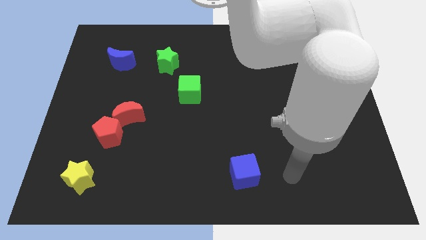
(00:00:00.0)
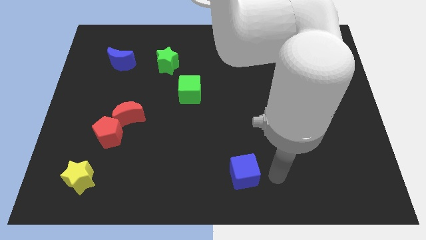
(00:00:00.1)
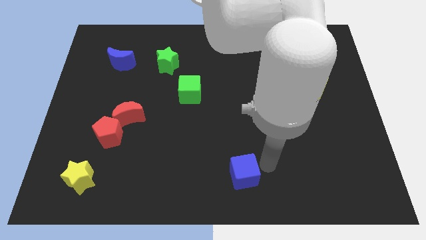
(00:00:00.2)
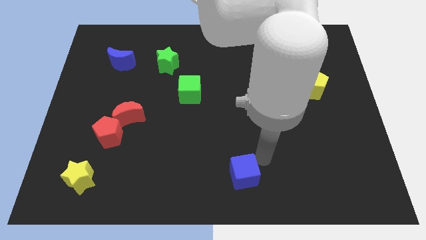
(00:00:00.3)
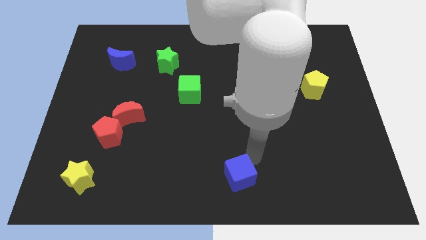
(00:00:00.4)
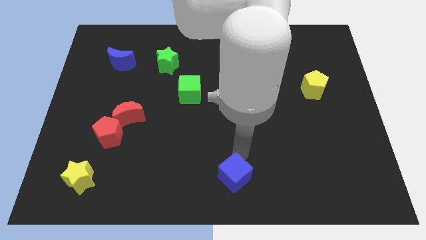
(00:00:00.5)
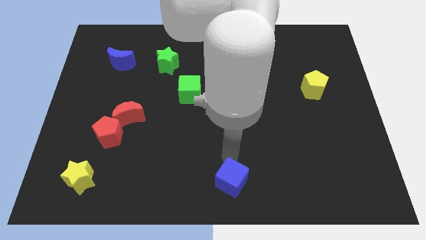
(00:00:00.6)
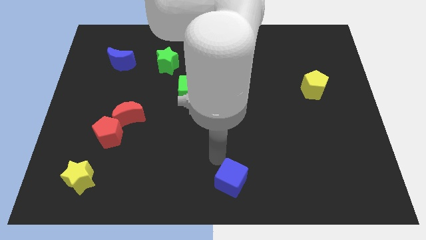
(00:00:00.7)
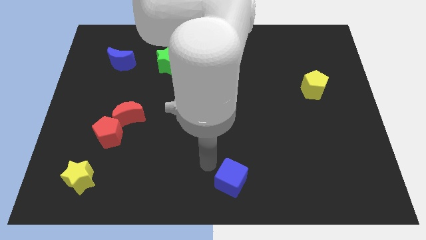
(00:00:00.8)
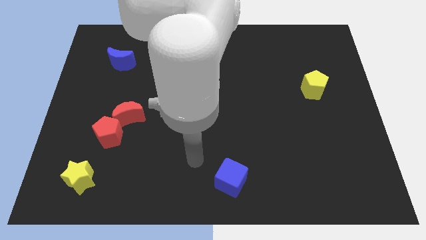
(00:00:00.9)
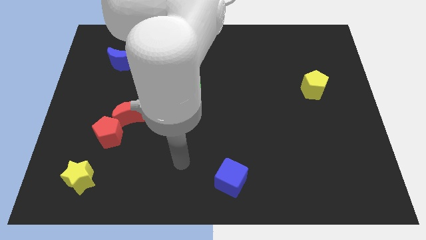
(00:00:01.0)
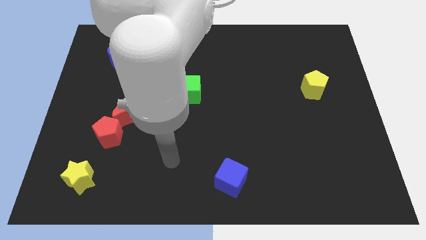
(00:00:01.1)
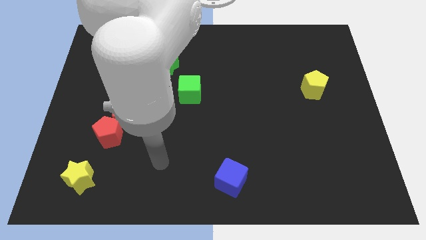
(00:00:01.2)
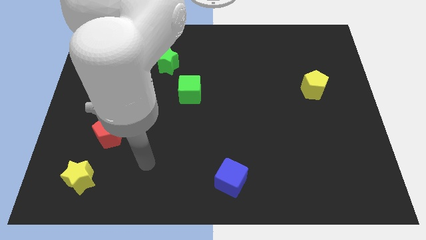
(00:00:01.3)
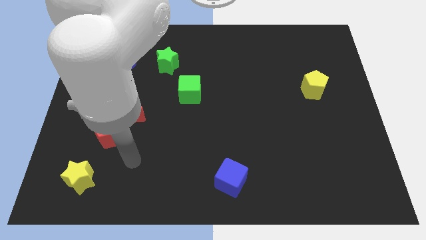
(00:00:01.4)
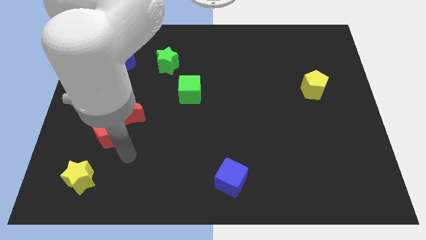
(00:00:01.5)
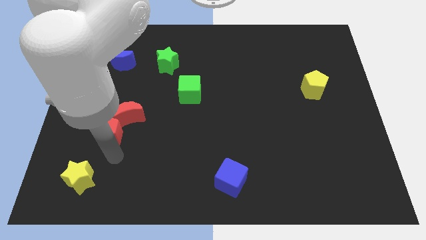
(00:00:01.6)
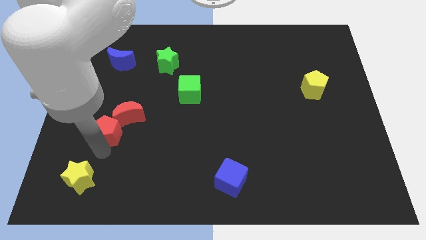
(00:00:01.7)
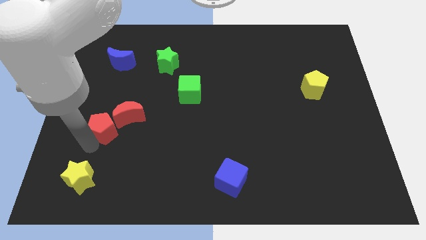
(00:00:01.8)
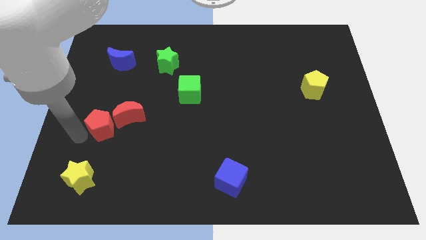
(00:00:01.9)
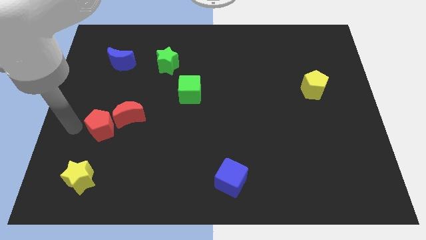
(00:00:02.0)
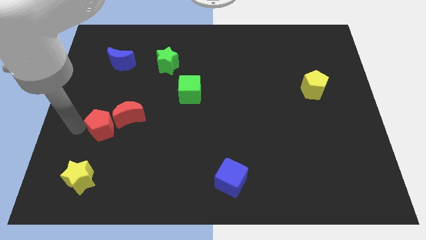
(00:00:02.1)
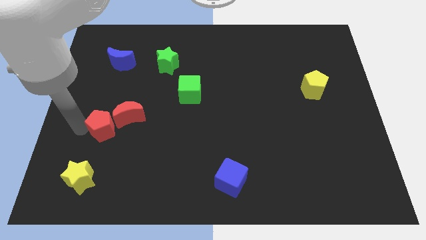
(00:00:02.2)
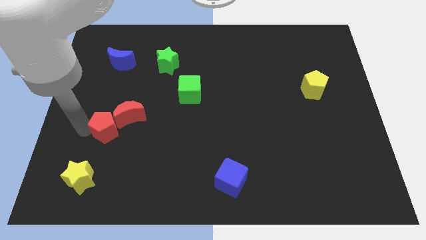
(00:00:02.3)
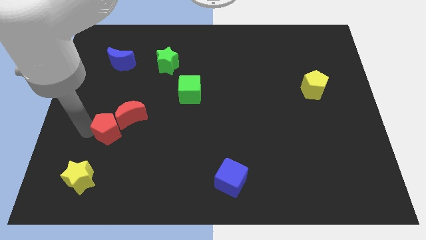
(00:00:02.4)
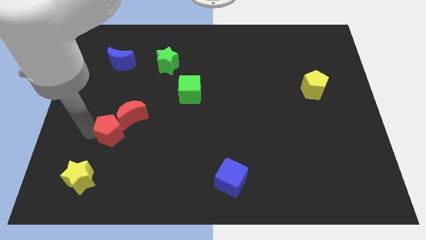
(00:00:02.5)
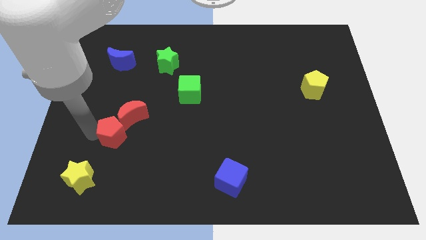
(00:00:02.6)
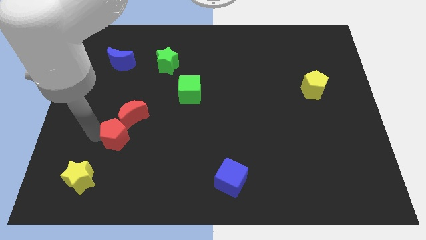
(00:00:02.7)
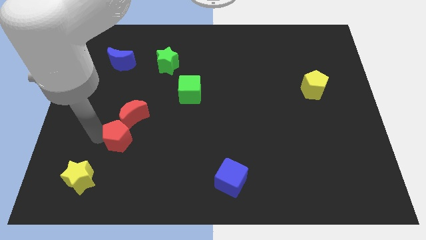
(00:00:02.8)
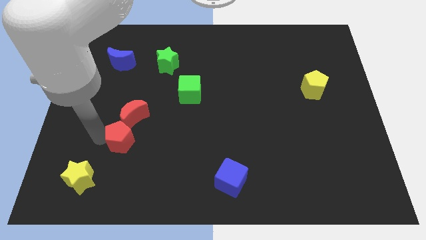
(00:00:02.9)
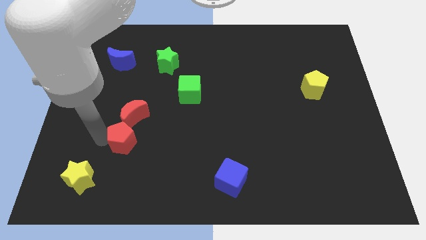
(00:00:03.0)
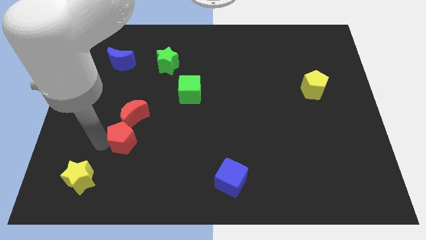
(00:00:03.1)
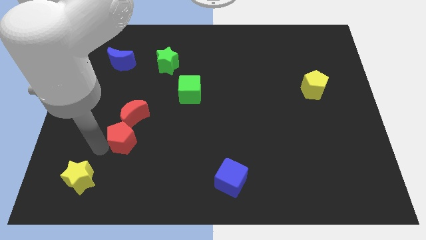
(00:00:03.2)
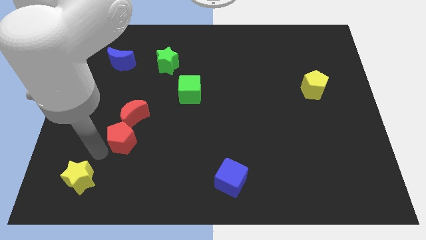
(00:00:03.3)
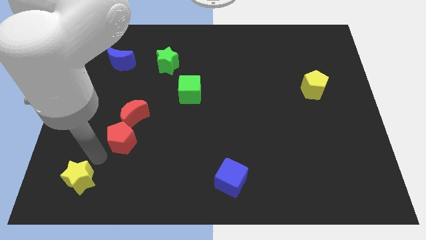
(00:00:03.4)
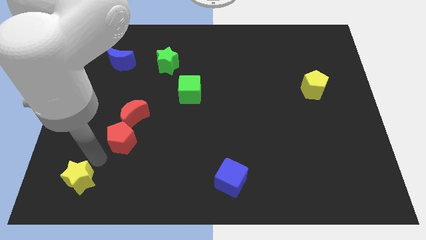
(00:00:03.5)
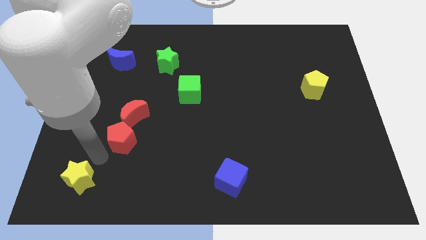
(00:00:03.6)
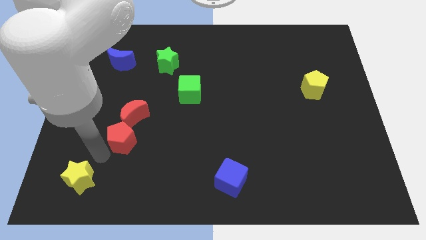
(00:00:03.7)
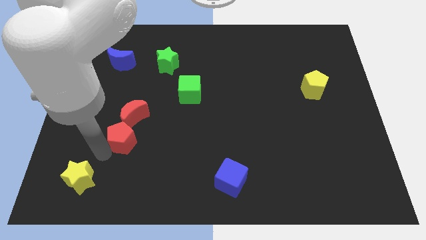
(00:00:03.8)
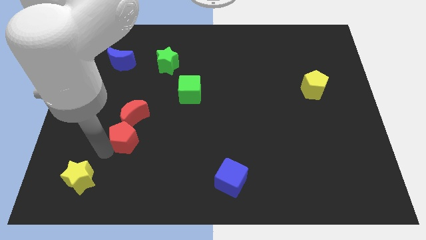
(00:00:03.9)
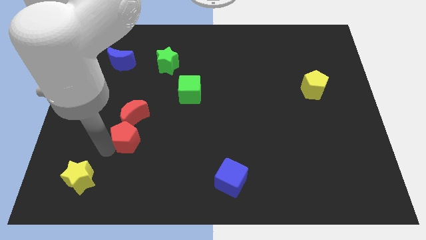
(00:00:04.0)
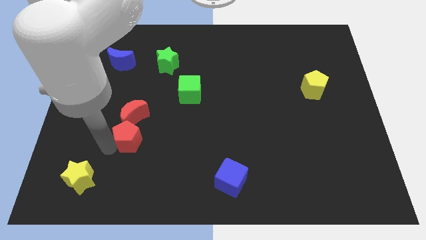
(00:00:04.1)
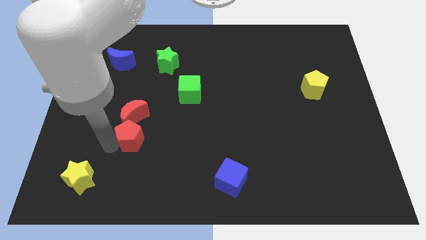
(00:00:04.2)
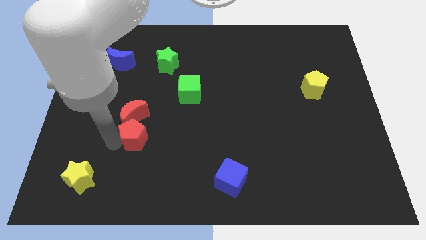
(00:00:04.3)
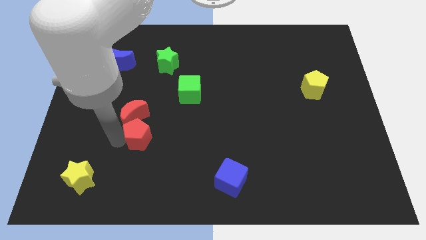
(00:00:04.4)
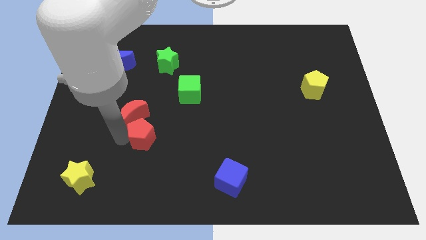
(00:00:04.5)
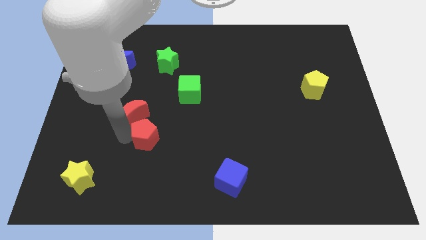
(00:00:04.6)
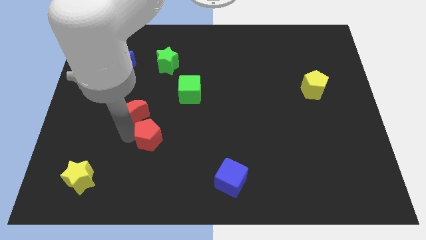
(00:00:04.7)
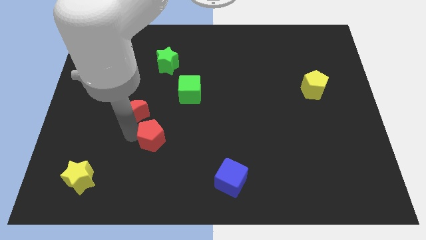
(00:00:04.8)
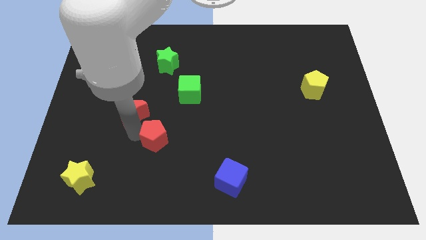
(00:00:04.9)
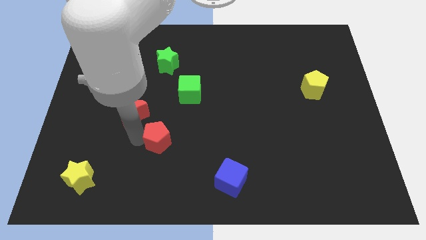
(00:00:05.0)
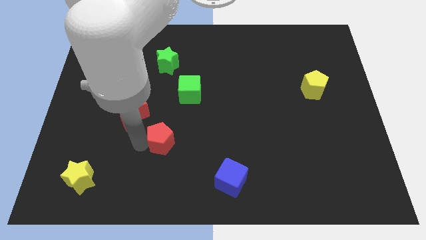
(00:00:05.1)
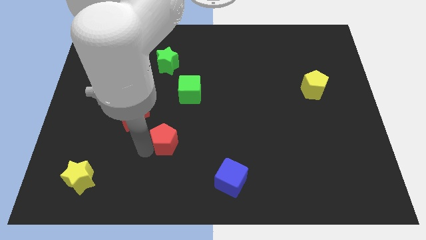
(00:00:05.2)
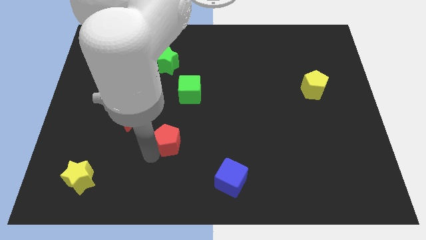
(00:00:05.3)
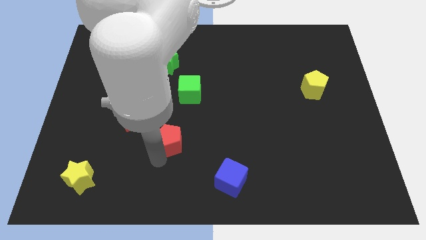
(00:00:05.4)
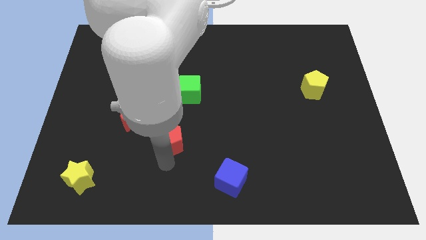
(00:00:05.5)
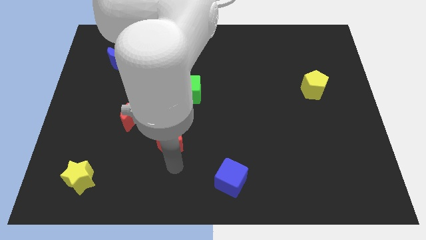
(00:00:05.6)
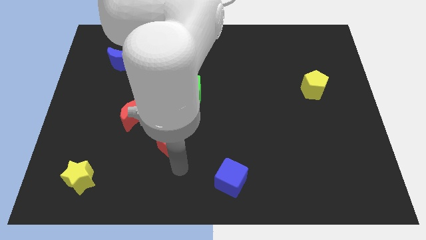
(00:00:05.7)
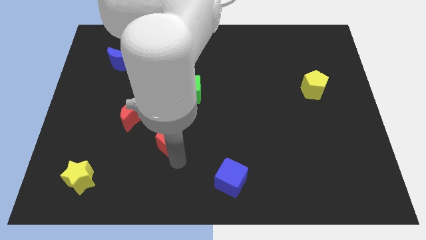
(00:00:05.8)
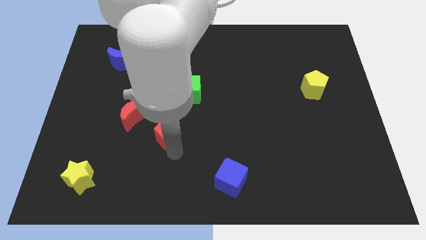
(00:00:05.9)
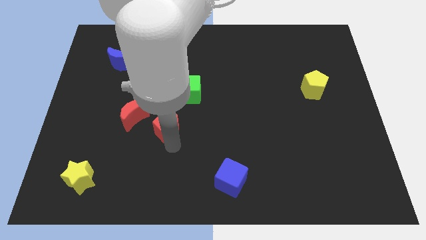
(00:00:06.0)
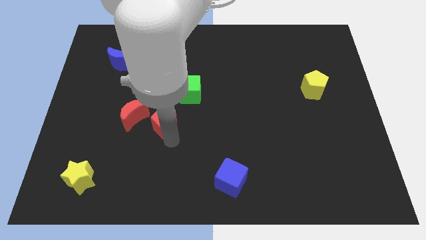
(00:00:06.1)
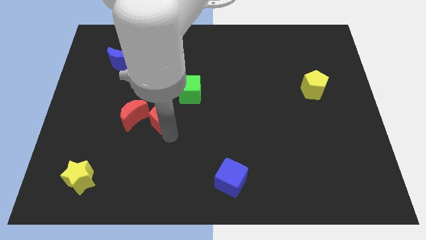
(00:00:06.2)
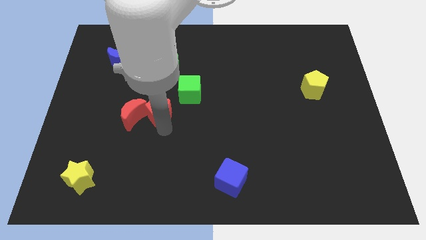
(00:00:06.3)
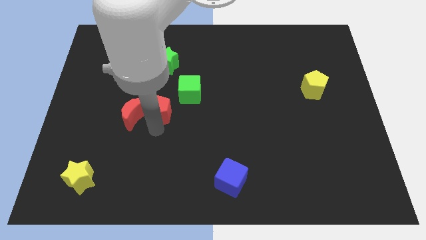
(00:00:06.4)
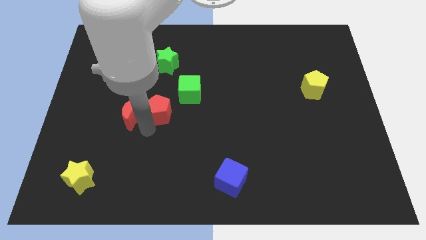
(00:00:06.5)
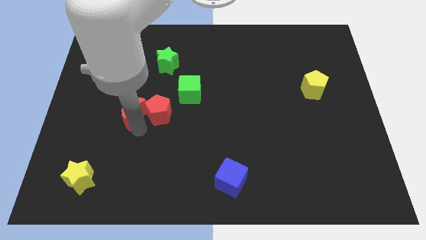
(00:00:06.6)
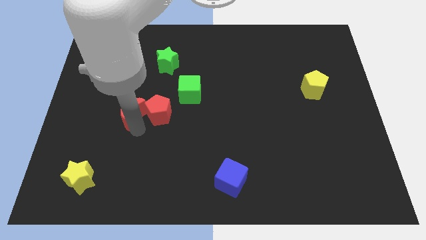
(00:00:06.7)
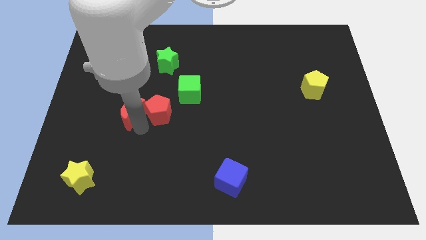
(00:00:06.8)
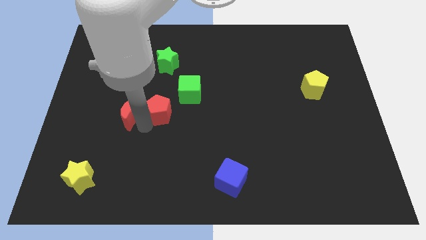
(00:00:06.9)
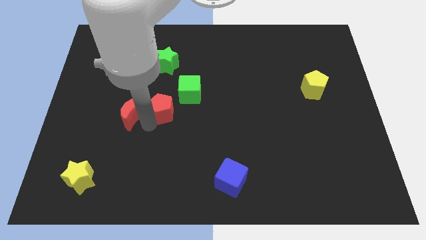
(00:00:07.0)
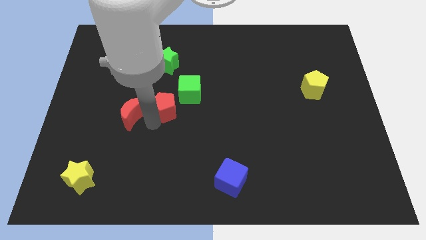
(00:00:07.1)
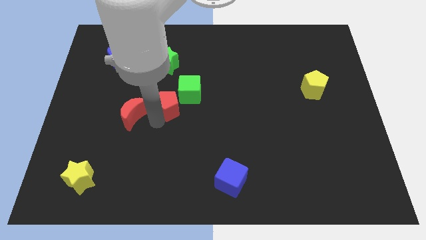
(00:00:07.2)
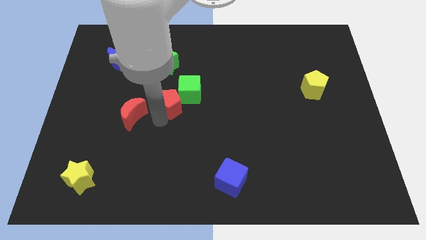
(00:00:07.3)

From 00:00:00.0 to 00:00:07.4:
push the red pentagon towards the green cube
